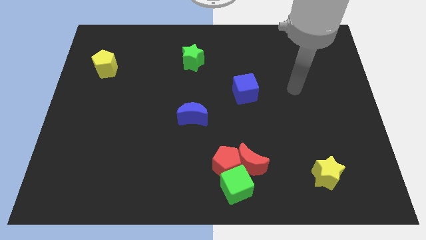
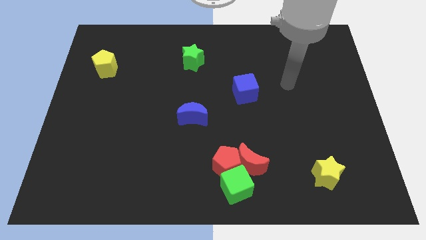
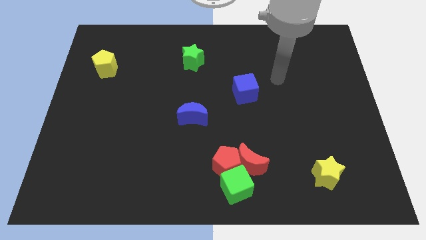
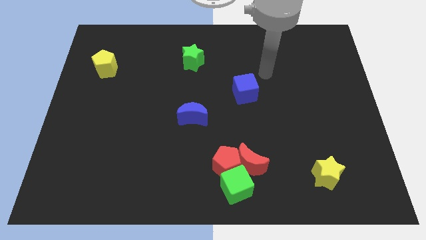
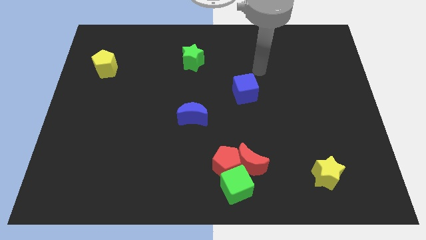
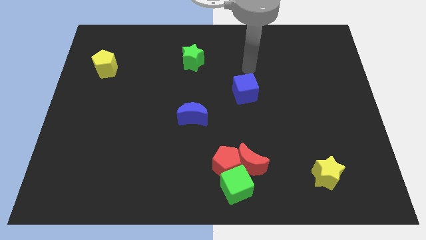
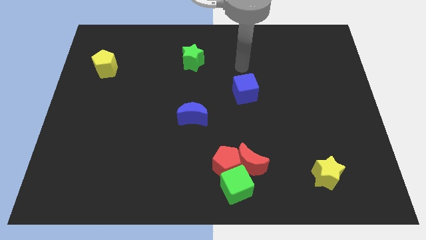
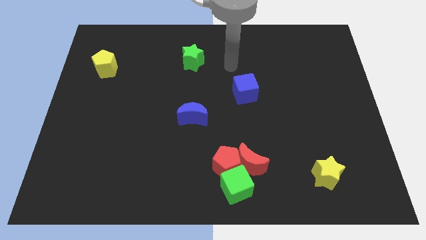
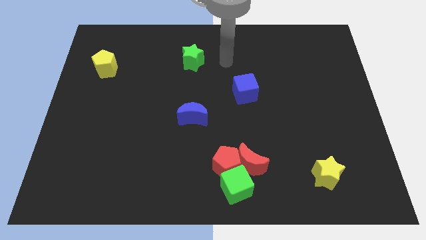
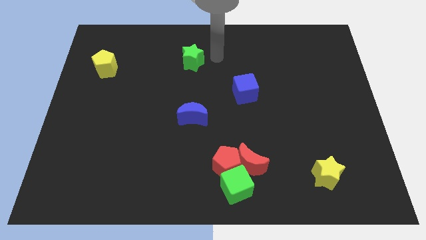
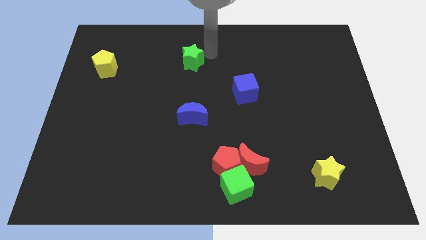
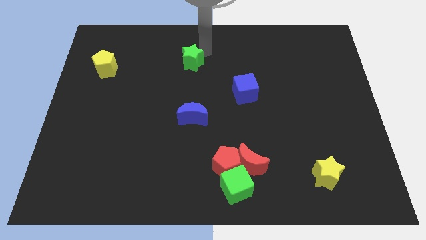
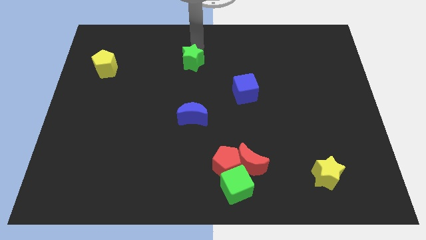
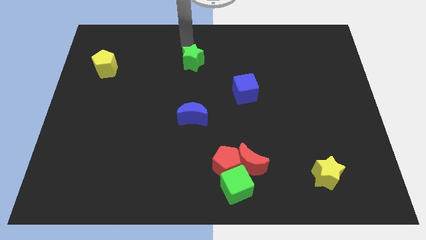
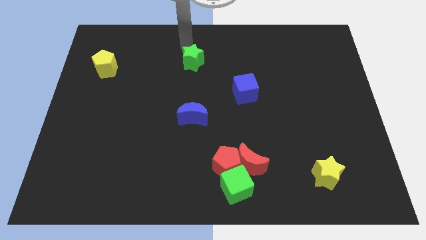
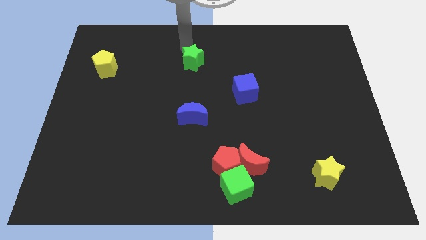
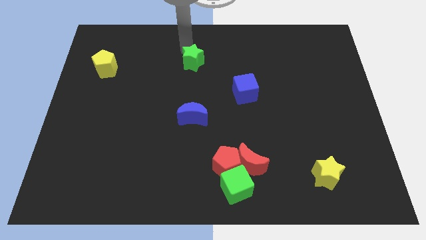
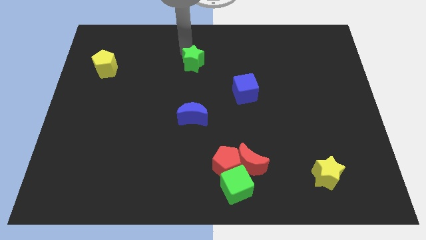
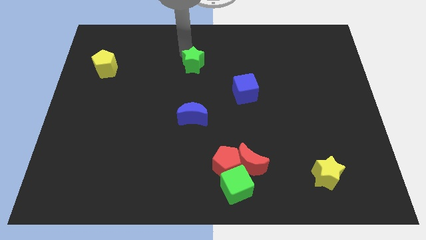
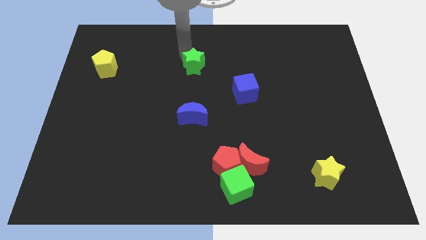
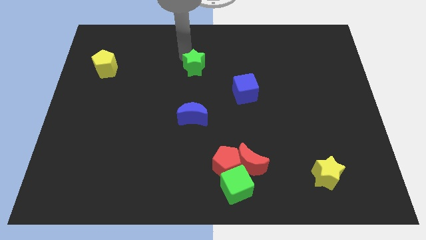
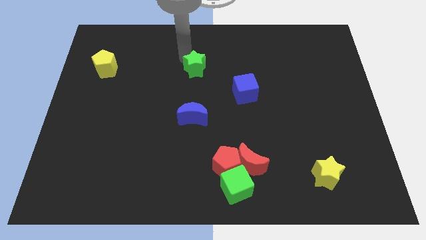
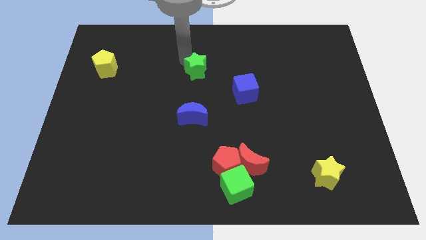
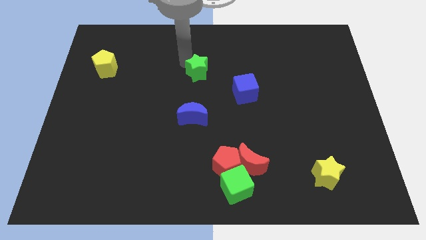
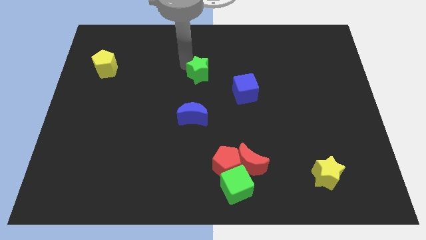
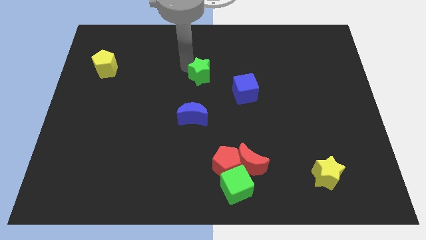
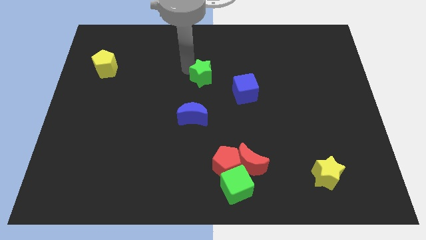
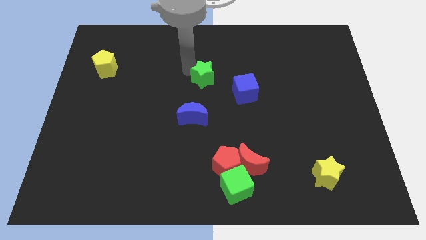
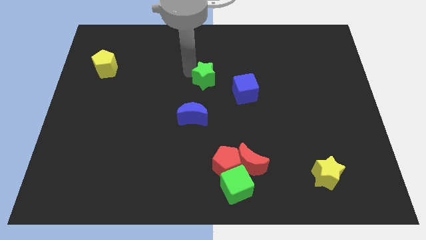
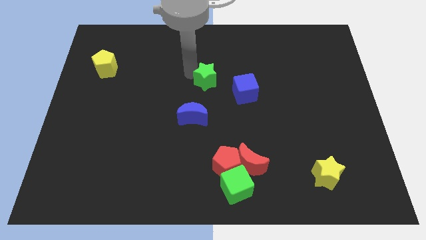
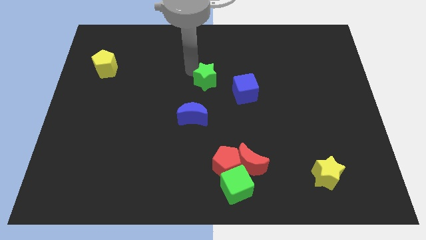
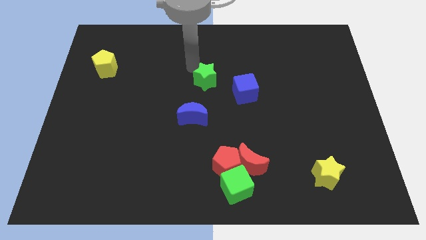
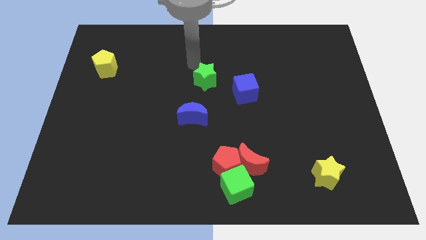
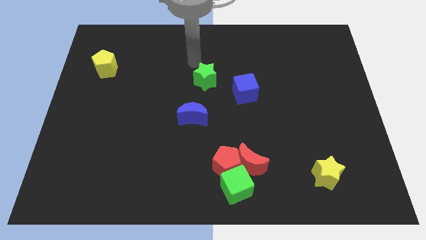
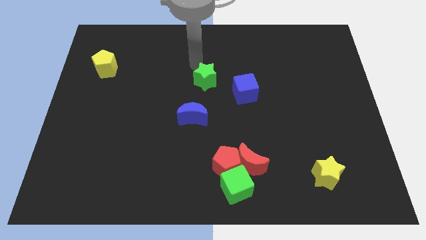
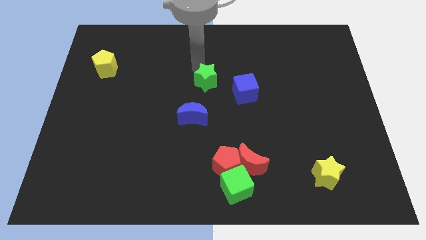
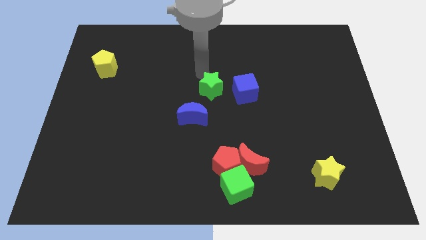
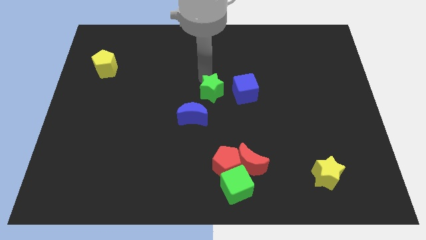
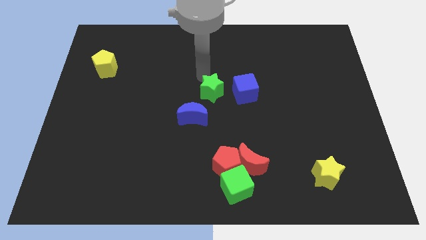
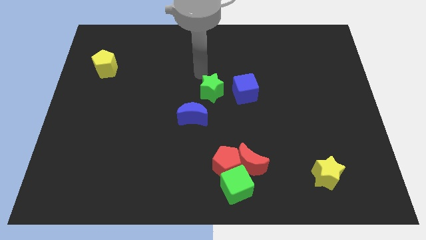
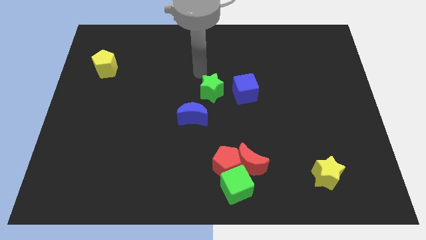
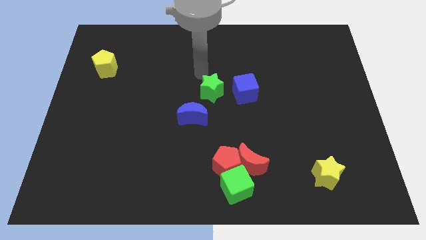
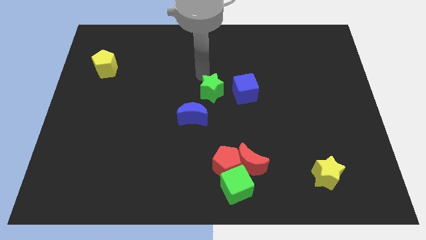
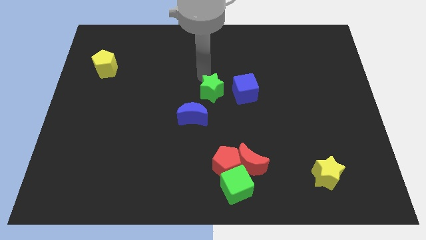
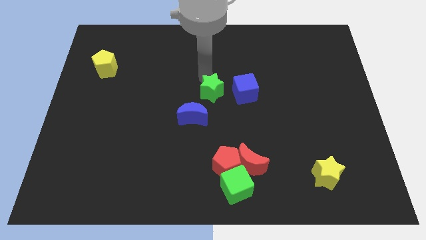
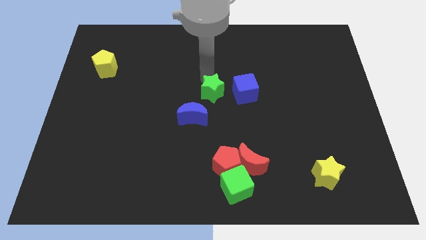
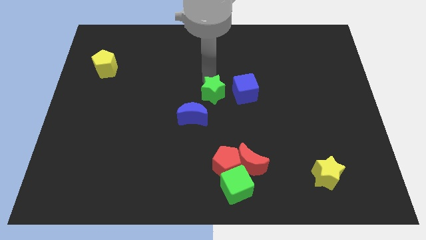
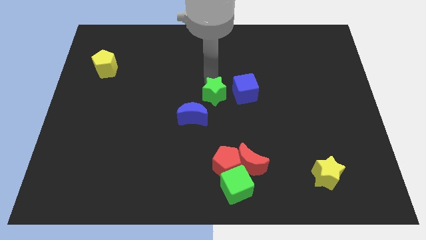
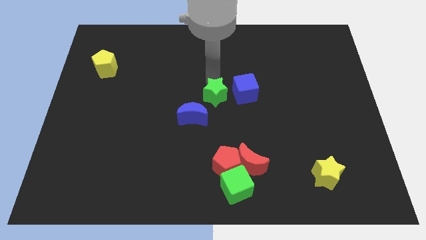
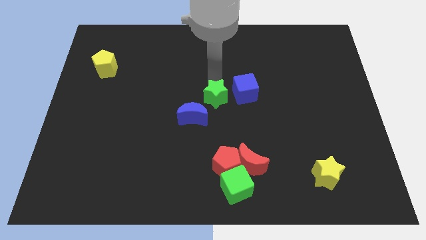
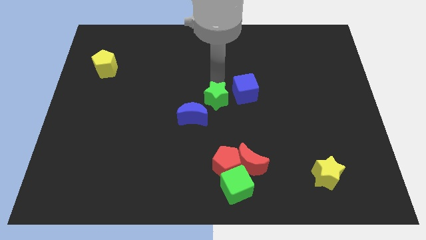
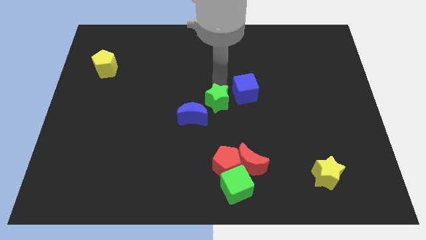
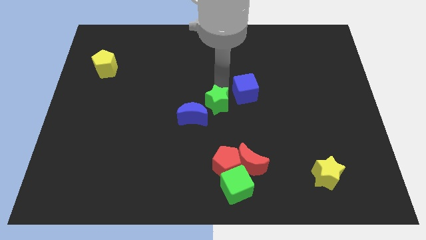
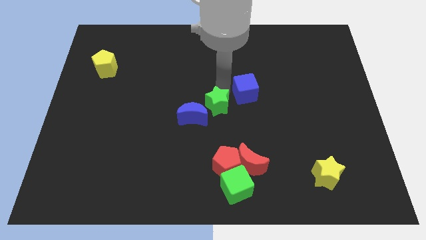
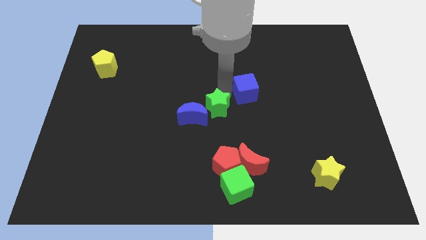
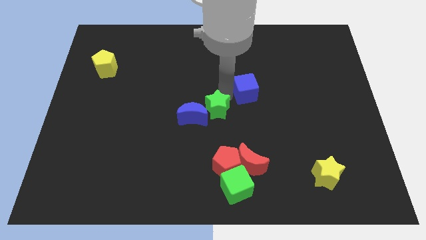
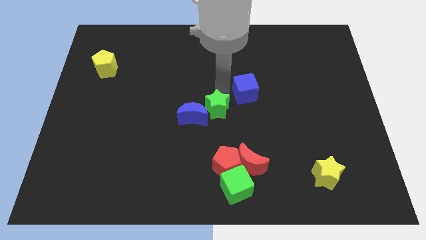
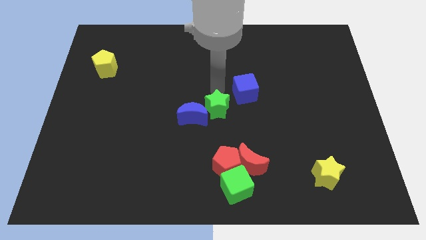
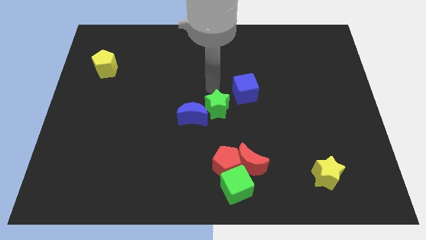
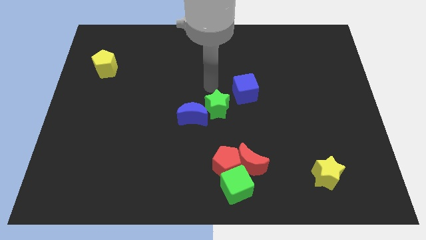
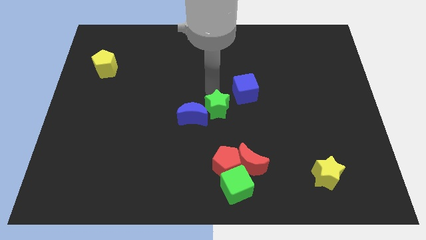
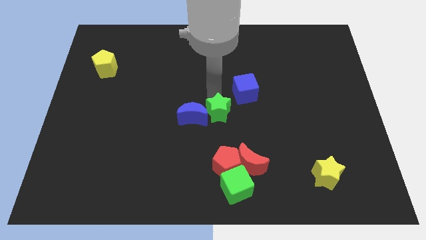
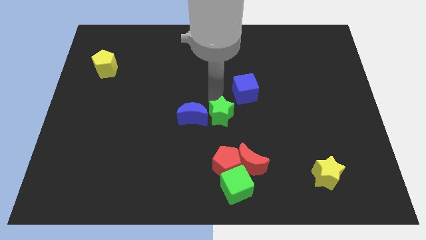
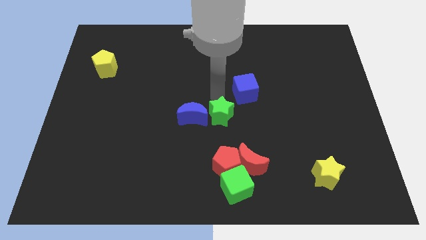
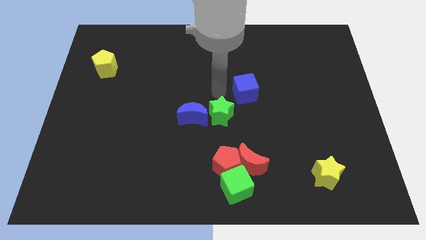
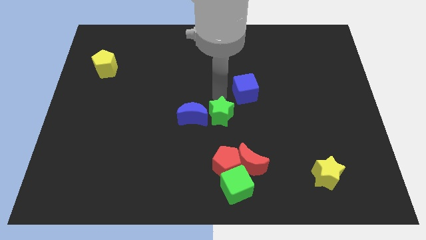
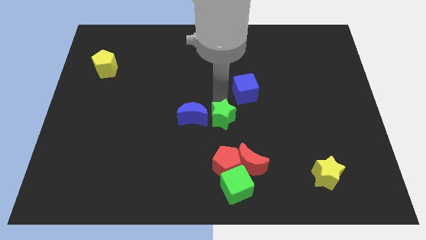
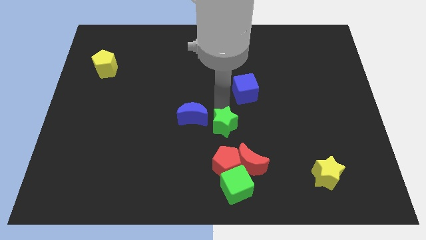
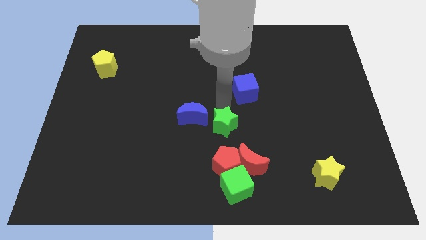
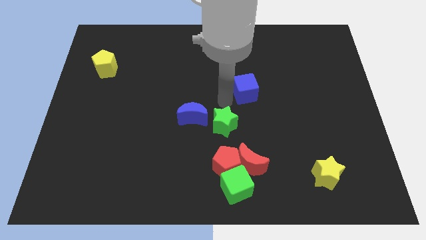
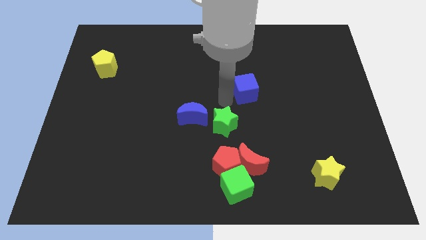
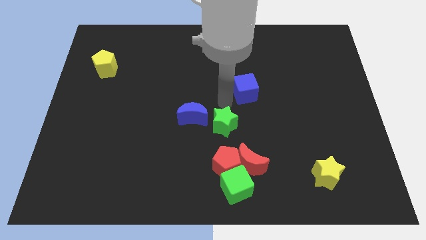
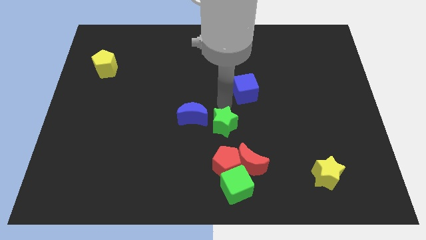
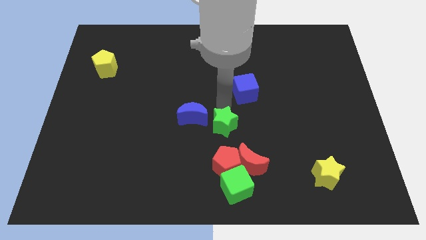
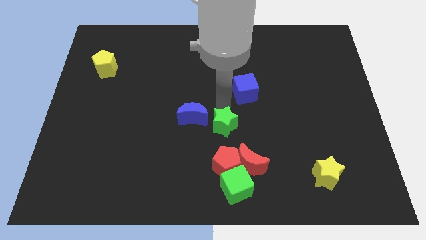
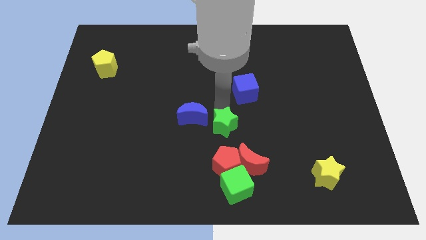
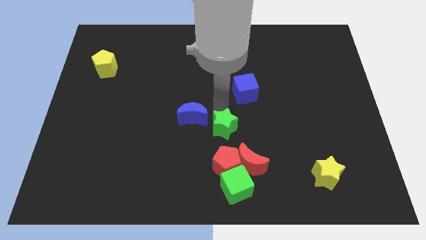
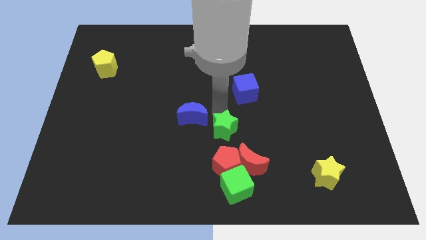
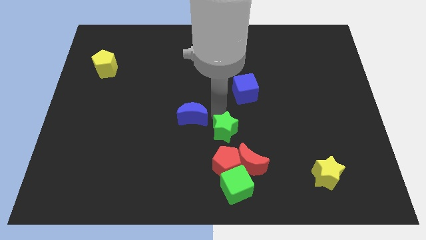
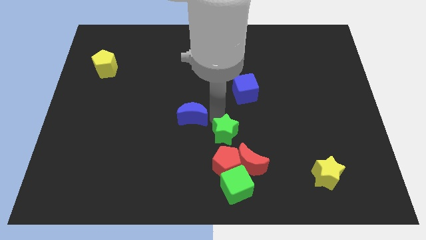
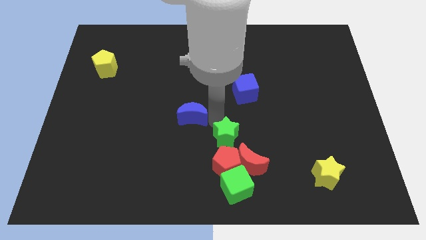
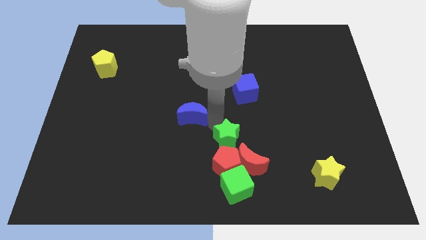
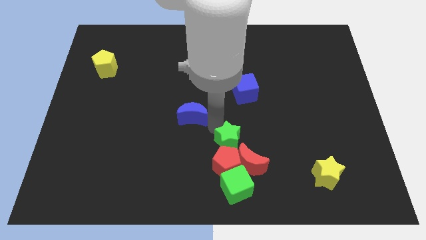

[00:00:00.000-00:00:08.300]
put the green star towards the red pentagon
